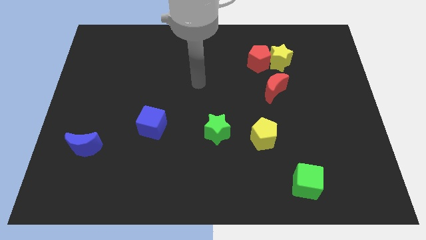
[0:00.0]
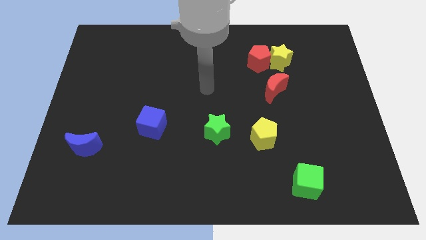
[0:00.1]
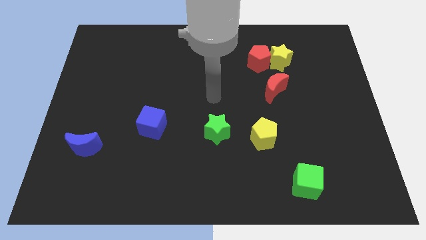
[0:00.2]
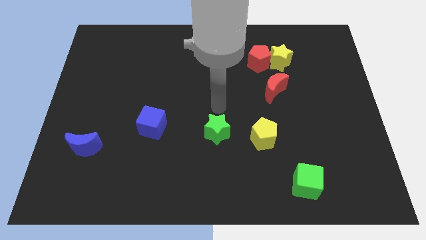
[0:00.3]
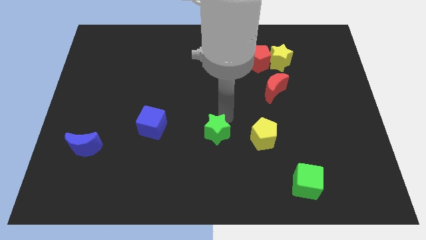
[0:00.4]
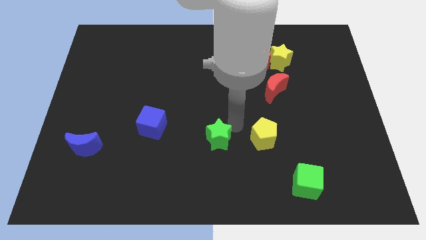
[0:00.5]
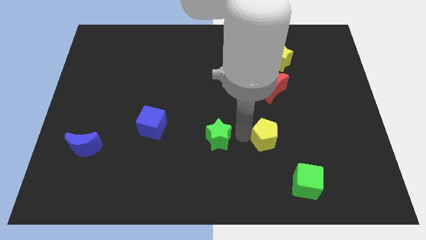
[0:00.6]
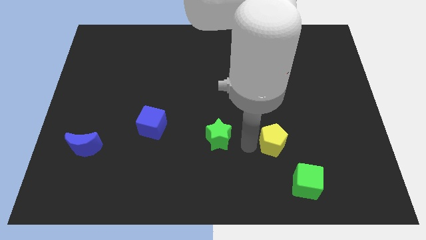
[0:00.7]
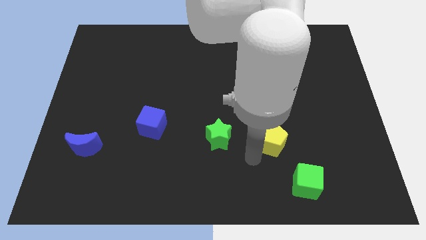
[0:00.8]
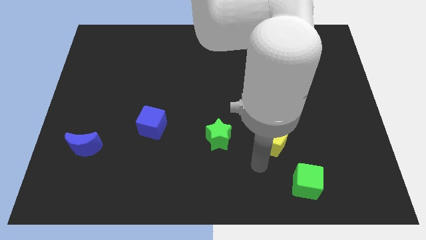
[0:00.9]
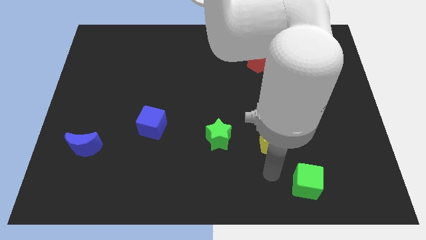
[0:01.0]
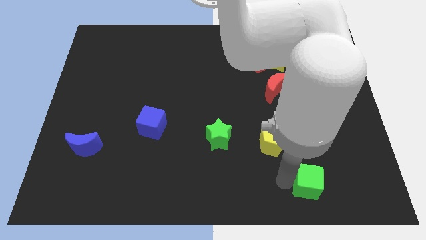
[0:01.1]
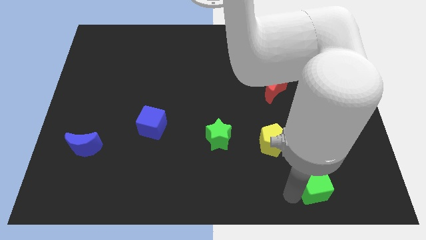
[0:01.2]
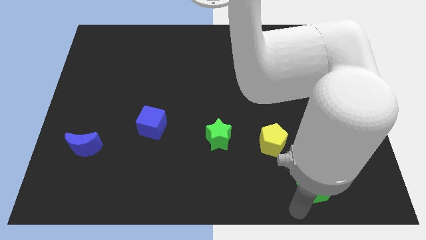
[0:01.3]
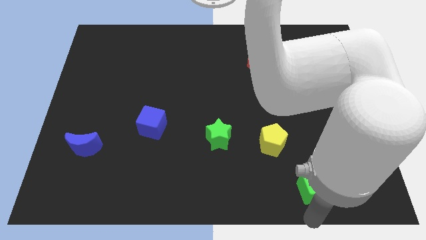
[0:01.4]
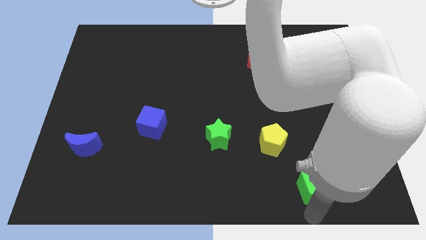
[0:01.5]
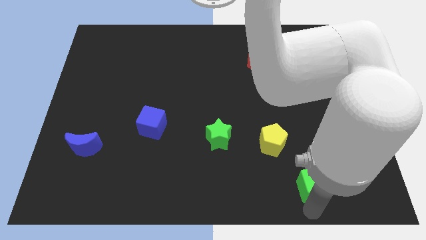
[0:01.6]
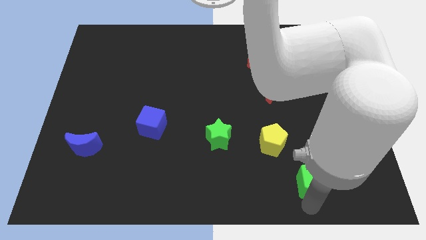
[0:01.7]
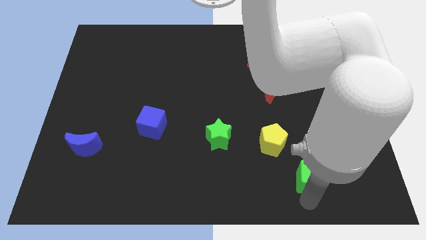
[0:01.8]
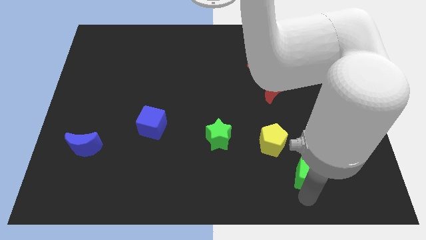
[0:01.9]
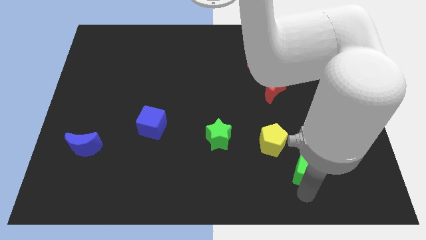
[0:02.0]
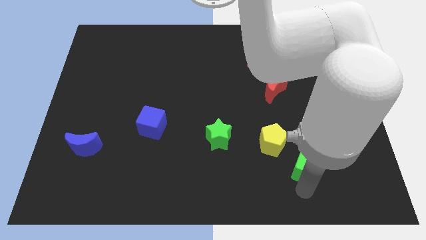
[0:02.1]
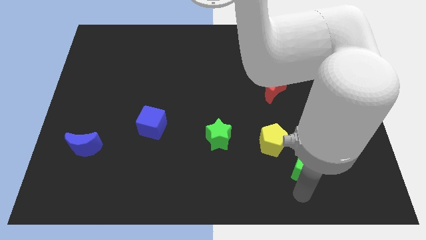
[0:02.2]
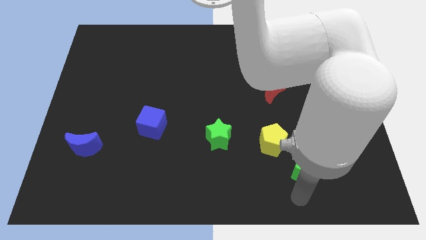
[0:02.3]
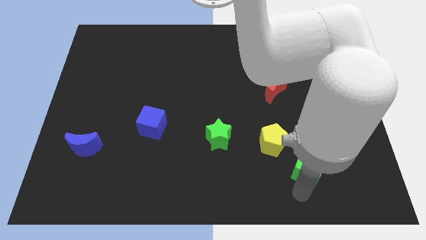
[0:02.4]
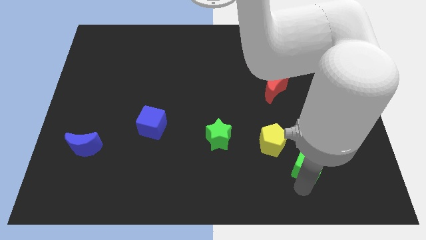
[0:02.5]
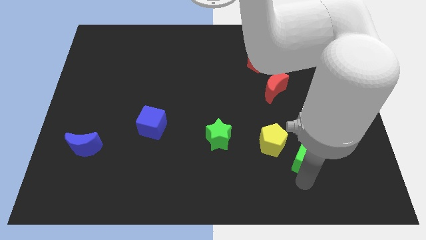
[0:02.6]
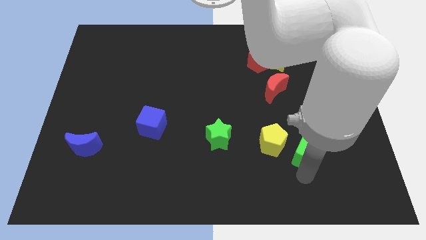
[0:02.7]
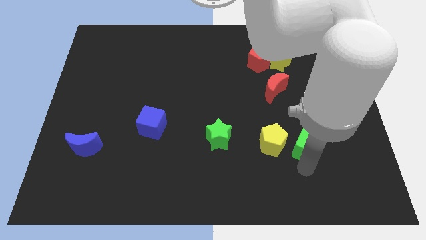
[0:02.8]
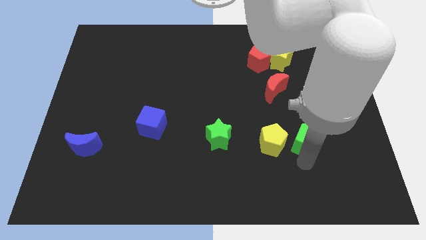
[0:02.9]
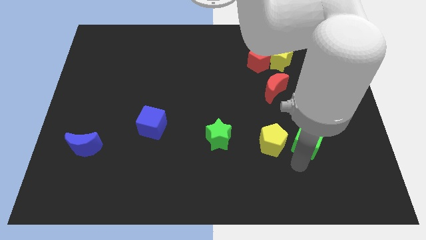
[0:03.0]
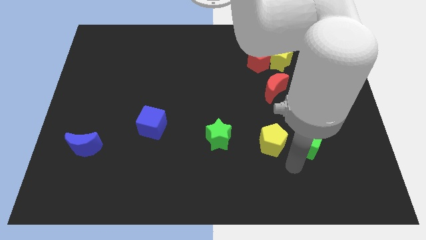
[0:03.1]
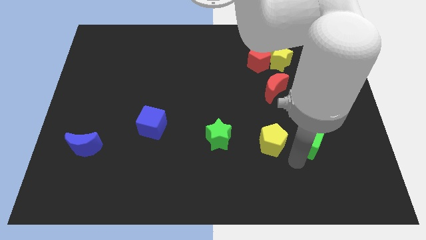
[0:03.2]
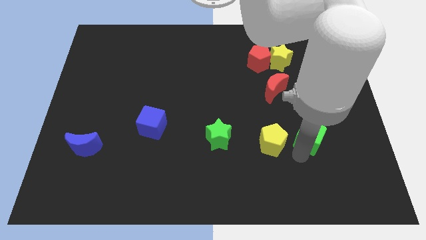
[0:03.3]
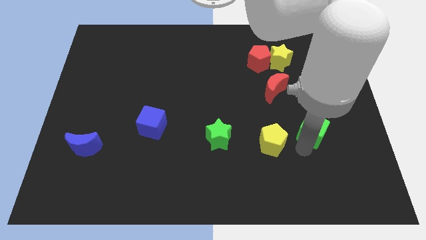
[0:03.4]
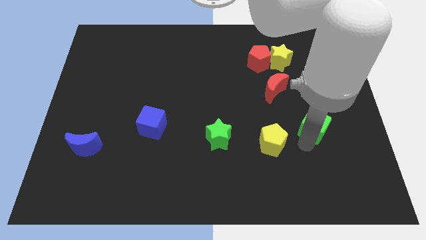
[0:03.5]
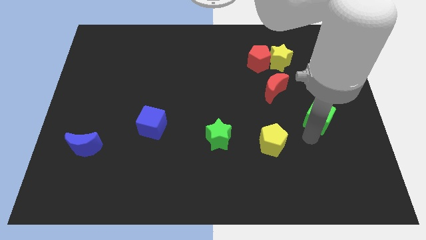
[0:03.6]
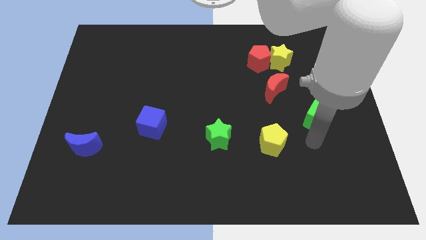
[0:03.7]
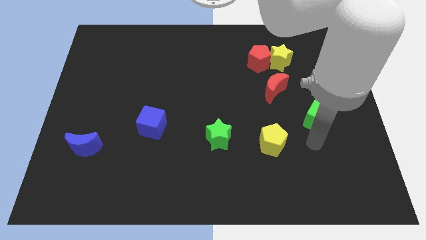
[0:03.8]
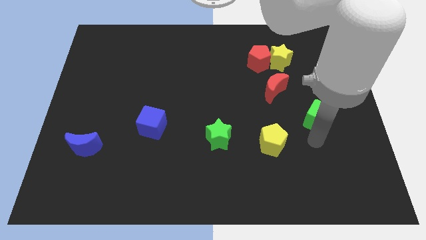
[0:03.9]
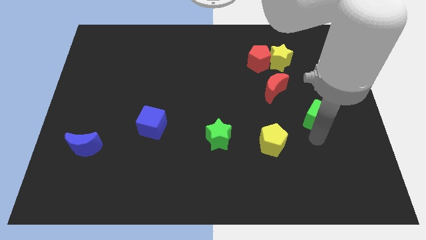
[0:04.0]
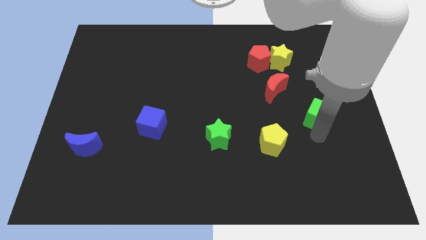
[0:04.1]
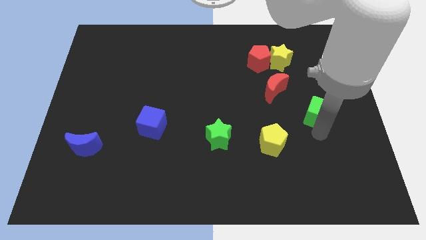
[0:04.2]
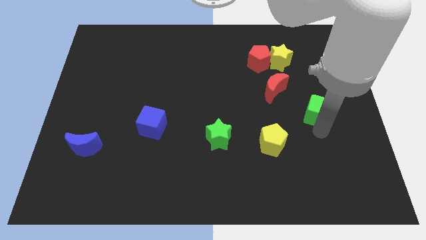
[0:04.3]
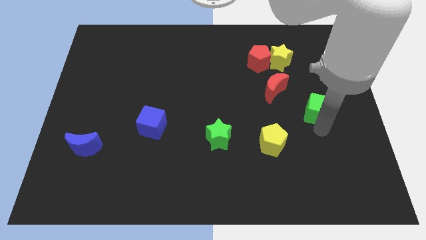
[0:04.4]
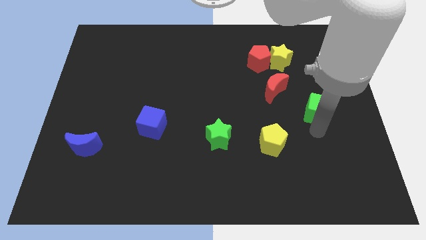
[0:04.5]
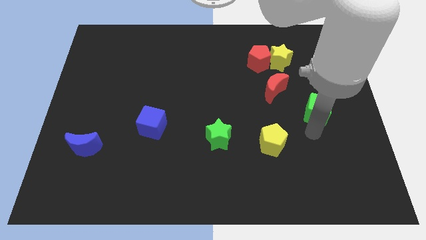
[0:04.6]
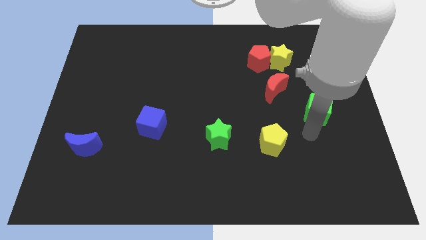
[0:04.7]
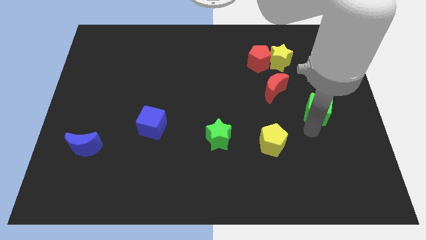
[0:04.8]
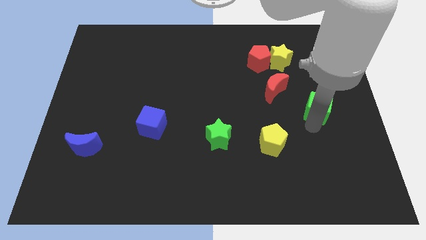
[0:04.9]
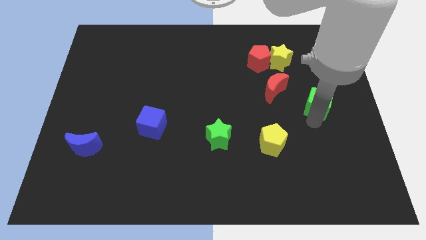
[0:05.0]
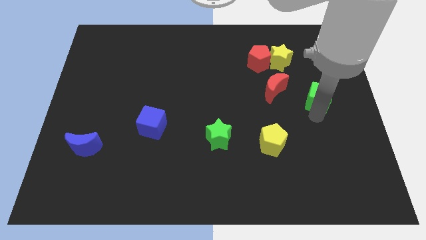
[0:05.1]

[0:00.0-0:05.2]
move the green cube to the right of the red moon

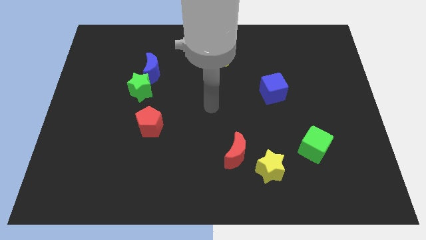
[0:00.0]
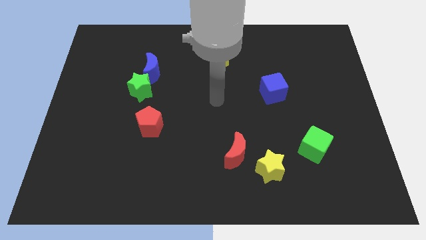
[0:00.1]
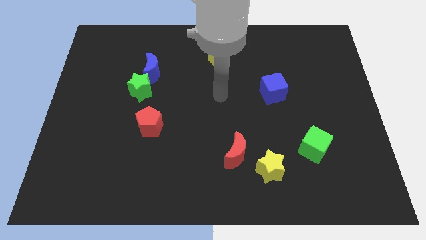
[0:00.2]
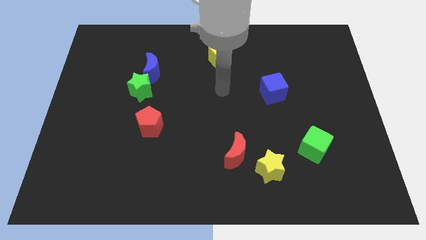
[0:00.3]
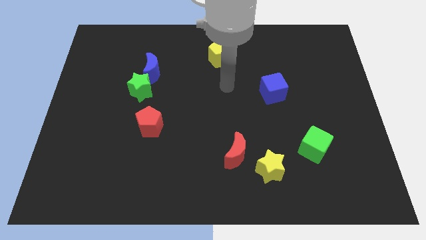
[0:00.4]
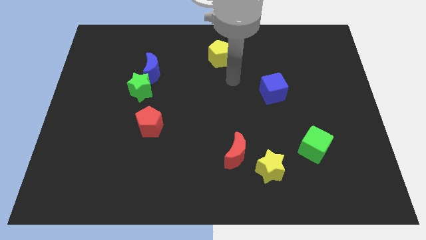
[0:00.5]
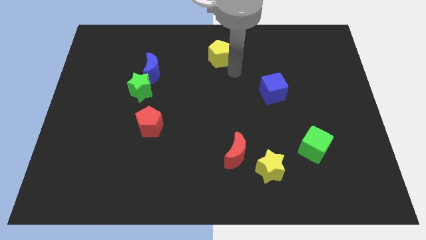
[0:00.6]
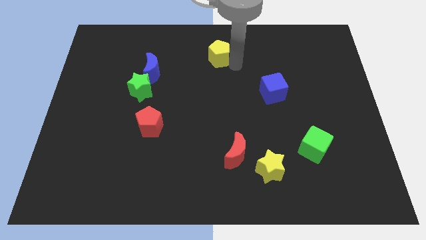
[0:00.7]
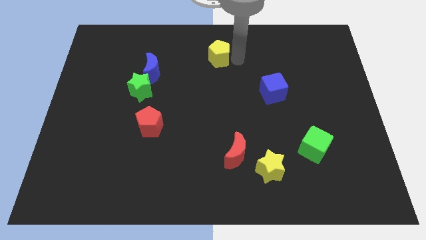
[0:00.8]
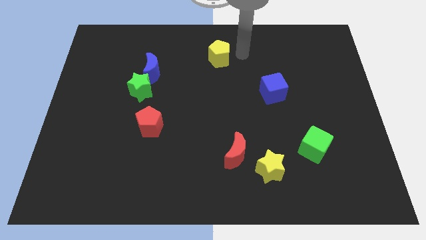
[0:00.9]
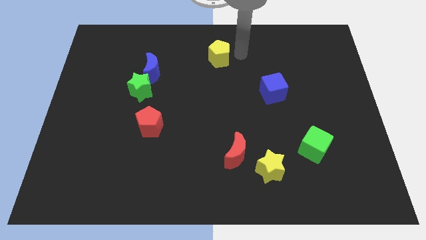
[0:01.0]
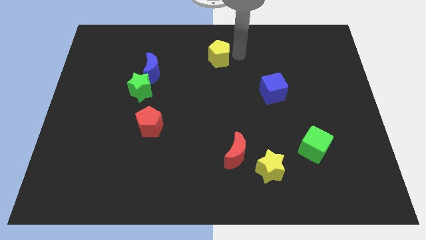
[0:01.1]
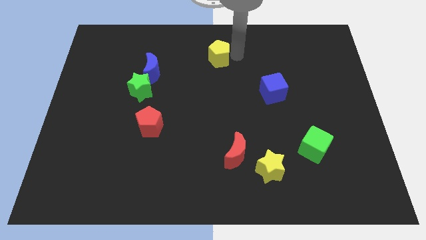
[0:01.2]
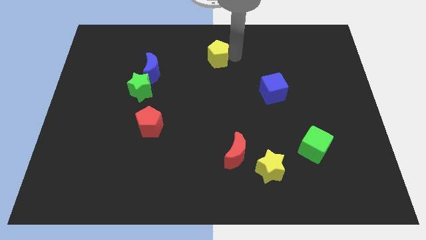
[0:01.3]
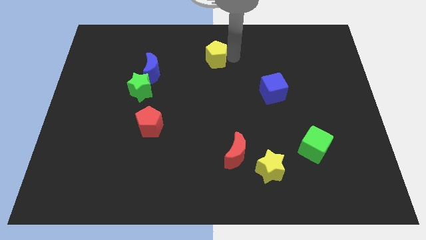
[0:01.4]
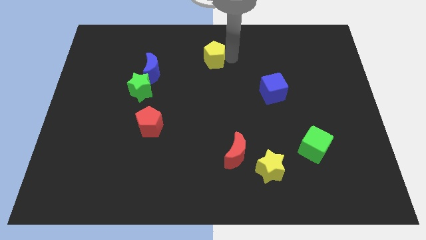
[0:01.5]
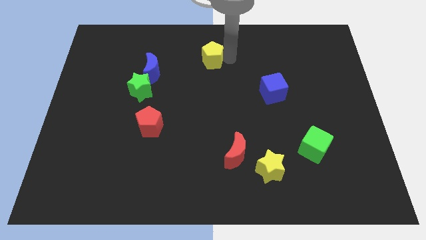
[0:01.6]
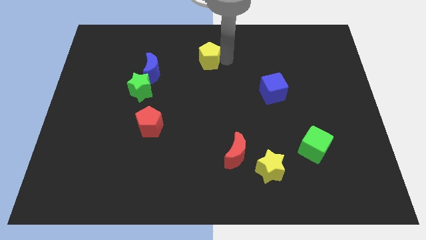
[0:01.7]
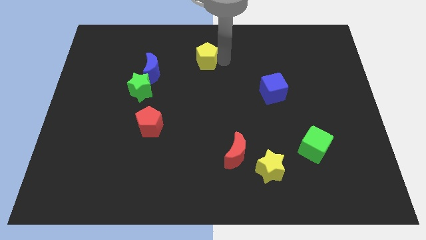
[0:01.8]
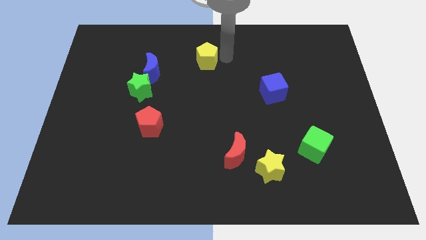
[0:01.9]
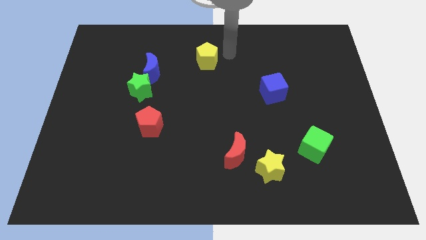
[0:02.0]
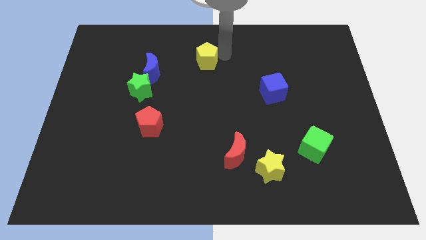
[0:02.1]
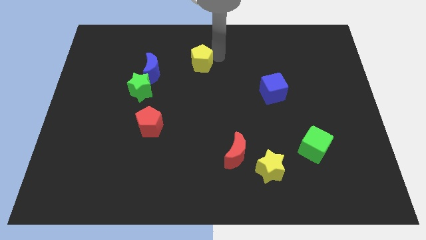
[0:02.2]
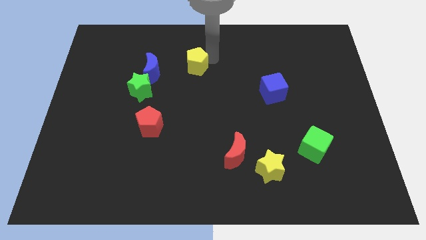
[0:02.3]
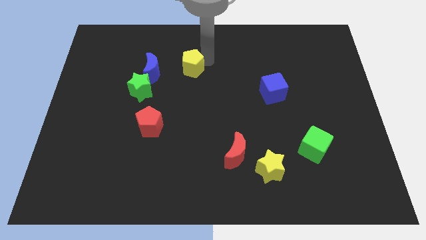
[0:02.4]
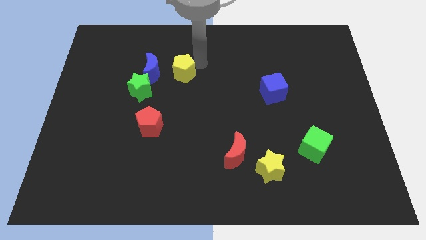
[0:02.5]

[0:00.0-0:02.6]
slide the yellow pentagon to the top right side of the green star
